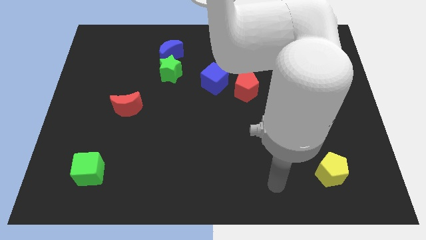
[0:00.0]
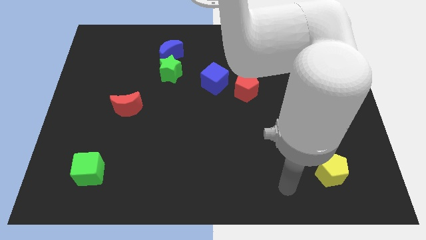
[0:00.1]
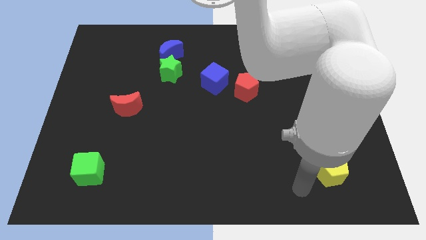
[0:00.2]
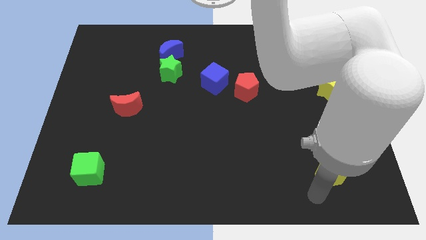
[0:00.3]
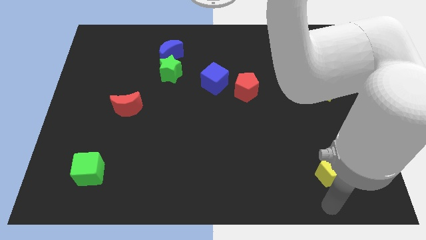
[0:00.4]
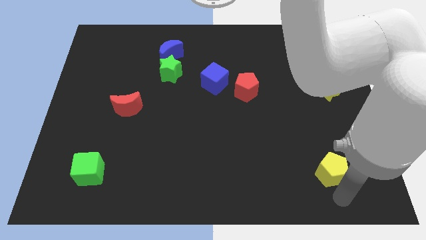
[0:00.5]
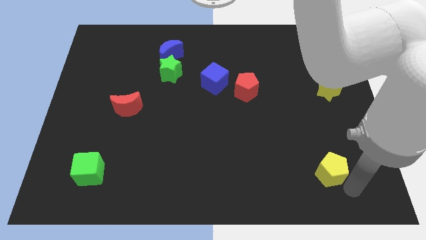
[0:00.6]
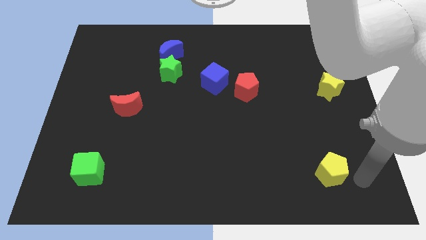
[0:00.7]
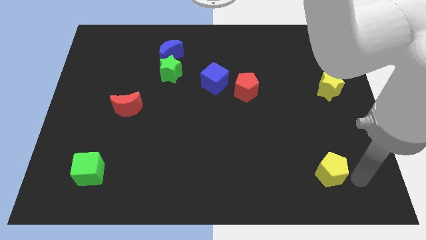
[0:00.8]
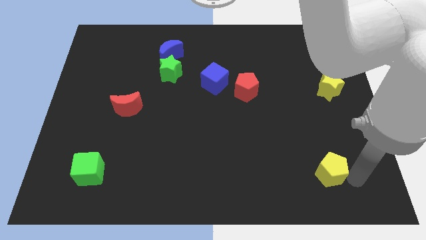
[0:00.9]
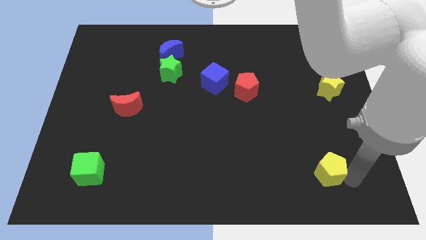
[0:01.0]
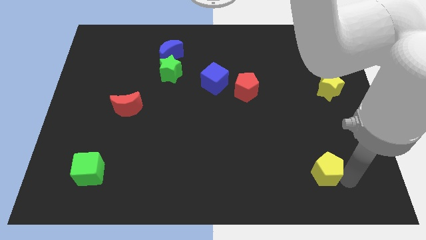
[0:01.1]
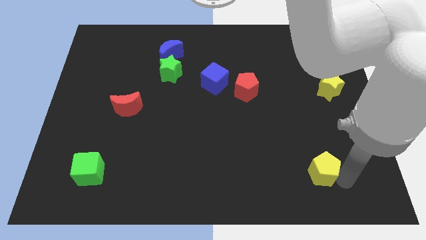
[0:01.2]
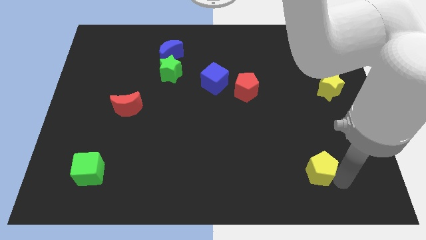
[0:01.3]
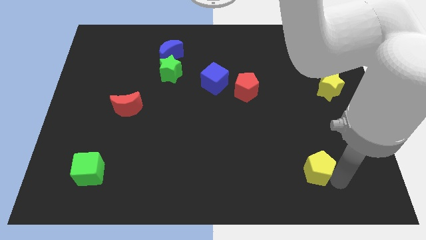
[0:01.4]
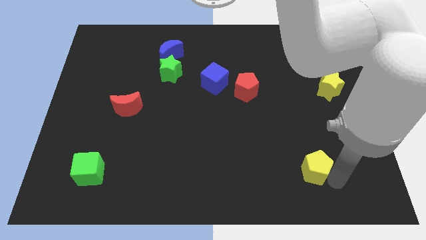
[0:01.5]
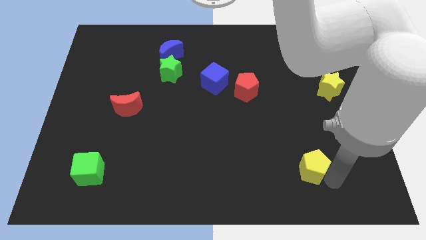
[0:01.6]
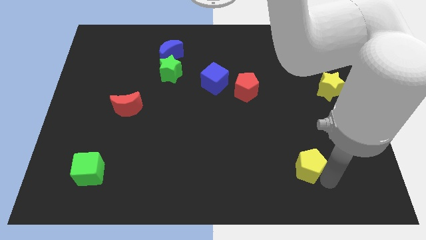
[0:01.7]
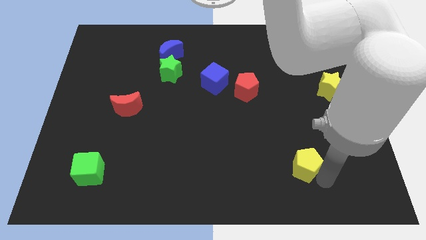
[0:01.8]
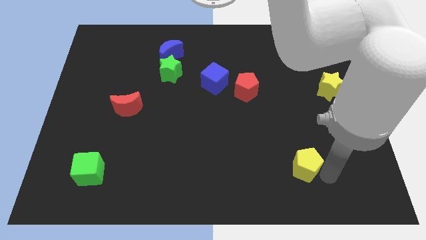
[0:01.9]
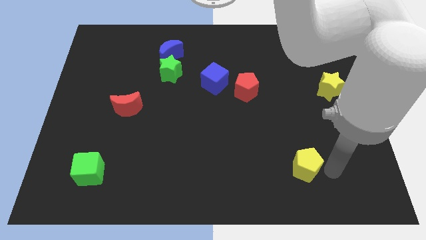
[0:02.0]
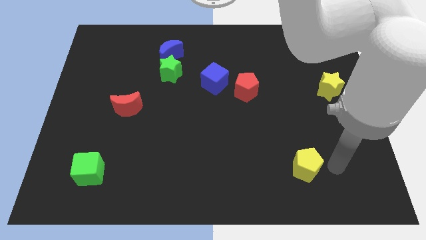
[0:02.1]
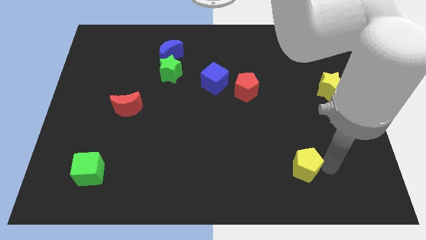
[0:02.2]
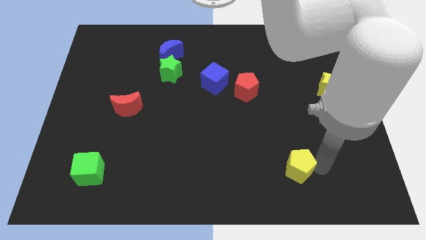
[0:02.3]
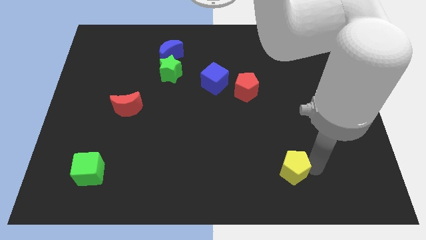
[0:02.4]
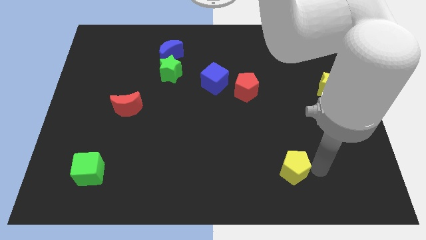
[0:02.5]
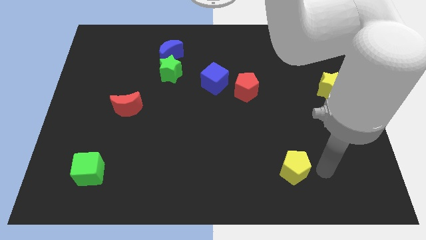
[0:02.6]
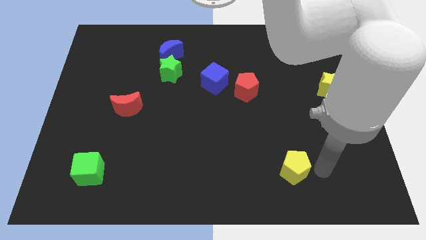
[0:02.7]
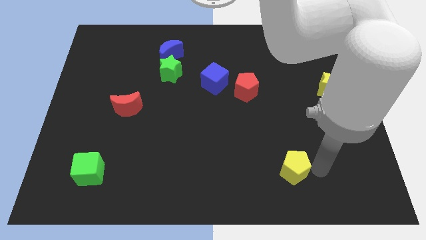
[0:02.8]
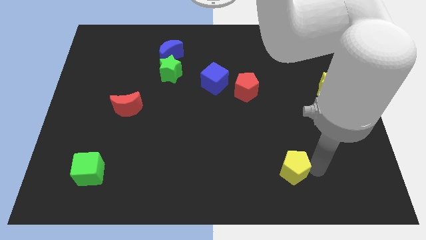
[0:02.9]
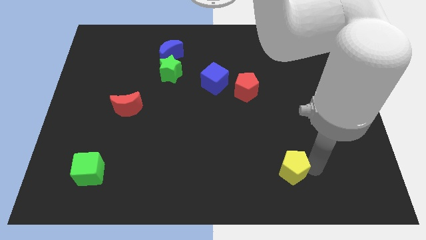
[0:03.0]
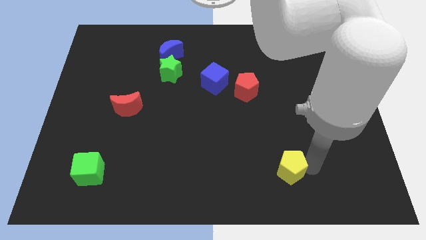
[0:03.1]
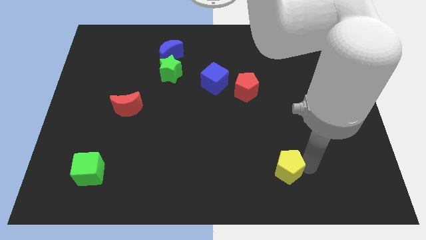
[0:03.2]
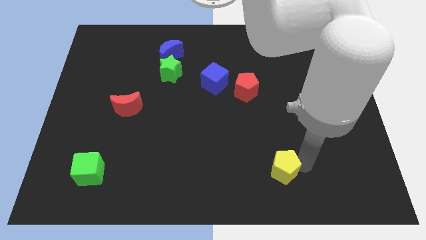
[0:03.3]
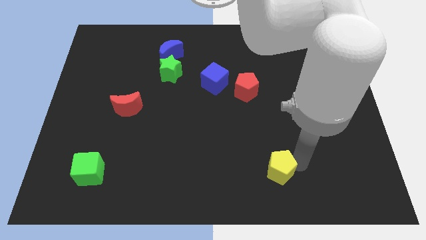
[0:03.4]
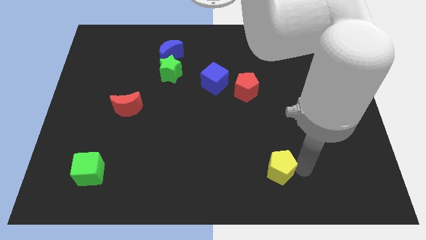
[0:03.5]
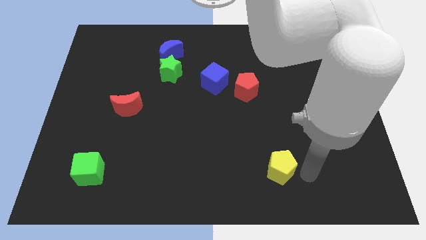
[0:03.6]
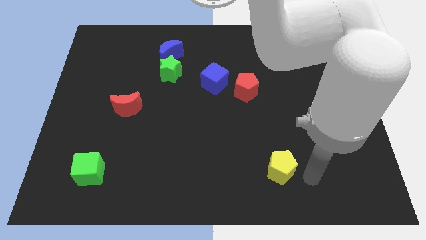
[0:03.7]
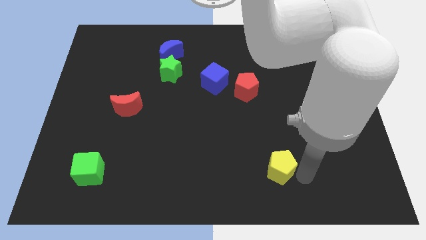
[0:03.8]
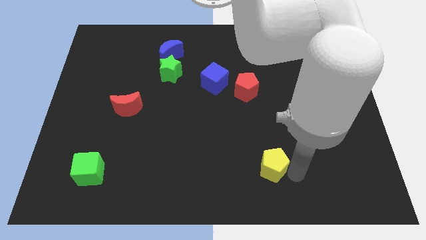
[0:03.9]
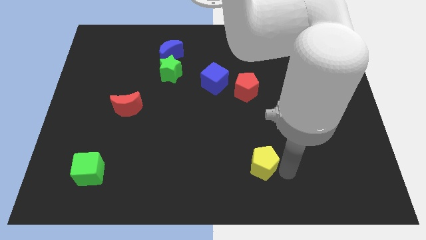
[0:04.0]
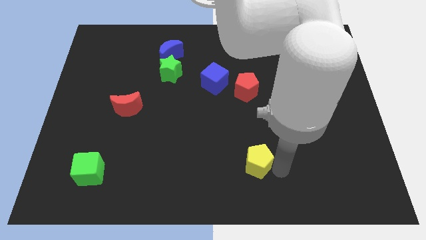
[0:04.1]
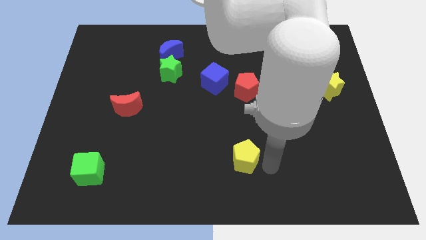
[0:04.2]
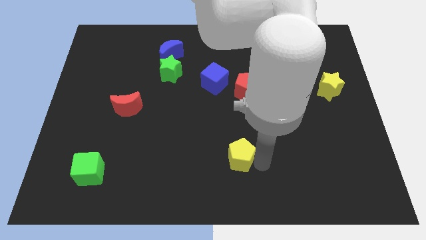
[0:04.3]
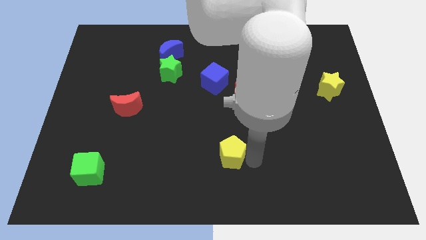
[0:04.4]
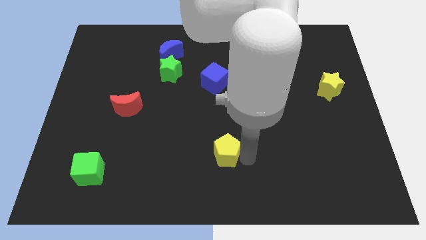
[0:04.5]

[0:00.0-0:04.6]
slide the yellow pentagon left

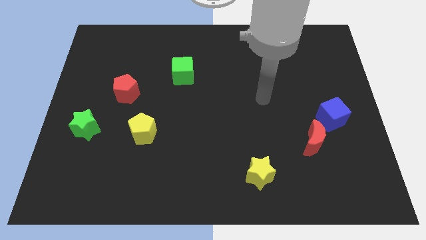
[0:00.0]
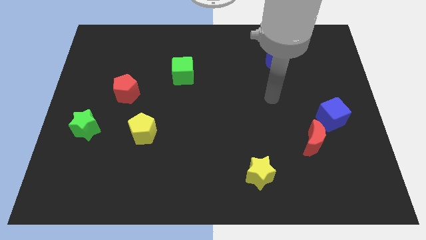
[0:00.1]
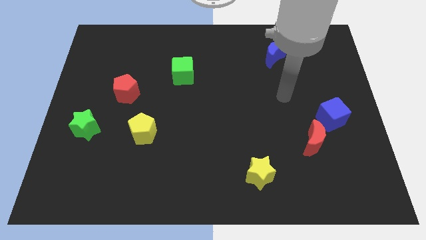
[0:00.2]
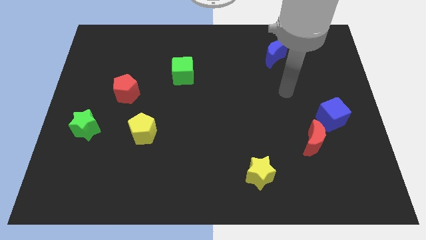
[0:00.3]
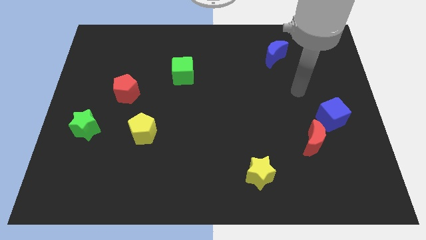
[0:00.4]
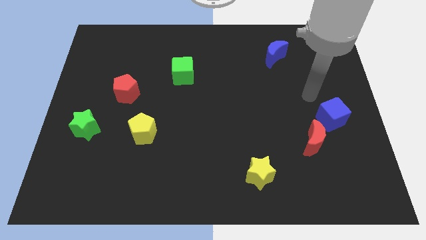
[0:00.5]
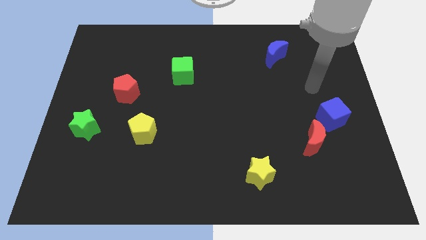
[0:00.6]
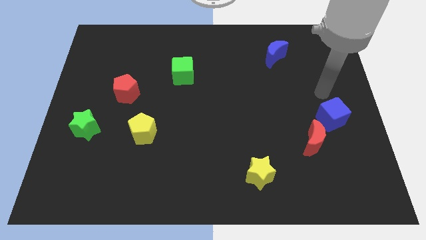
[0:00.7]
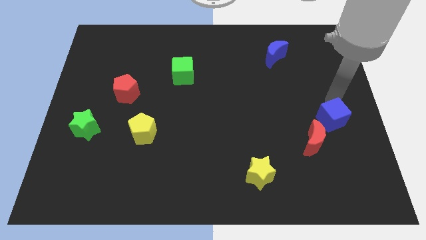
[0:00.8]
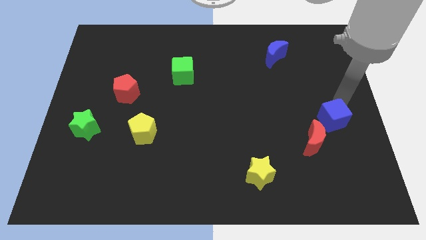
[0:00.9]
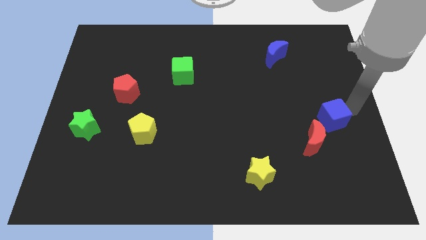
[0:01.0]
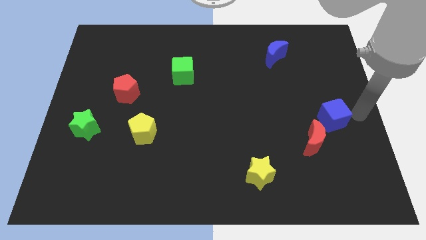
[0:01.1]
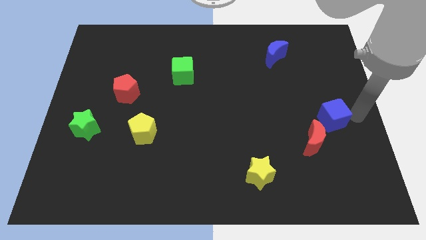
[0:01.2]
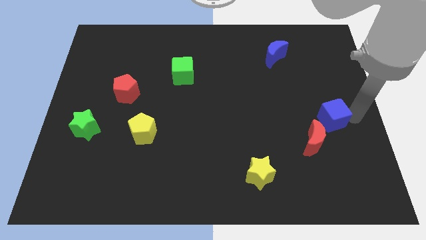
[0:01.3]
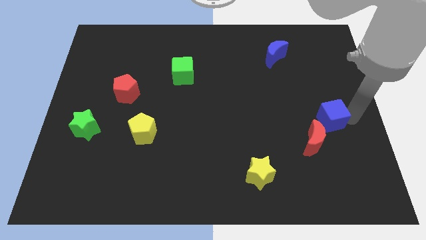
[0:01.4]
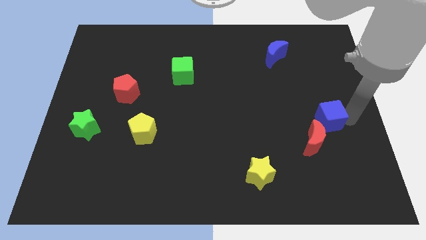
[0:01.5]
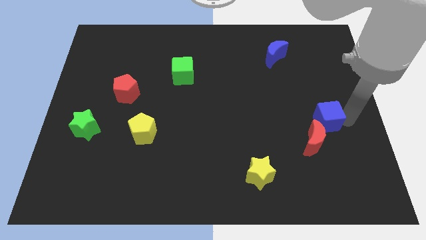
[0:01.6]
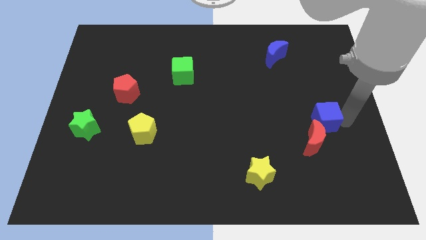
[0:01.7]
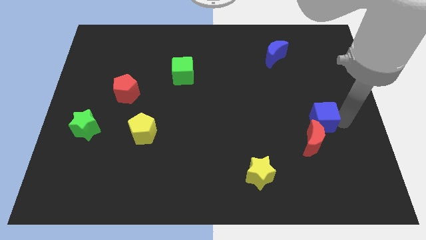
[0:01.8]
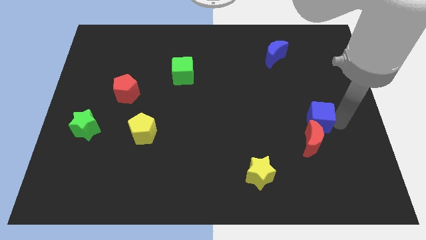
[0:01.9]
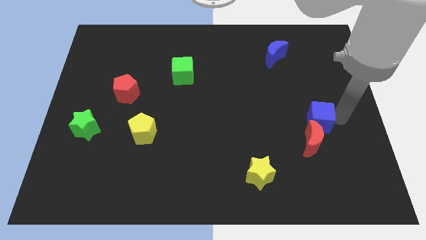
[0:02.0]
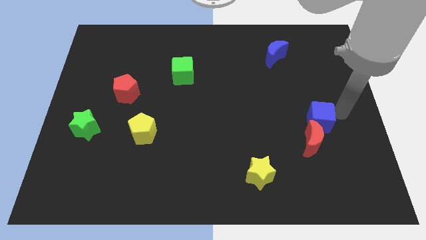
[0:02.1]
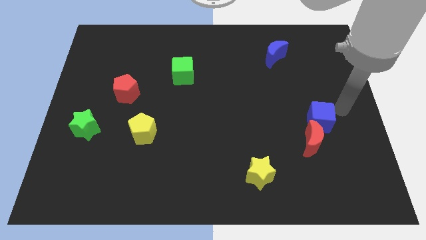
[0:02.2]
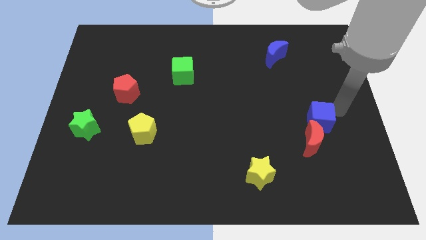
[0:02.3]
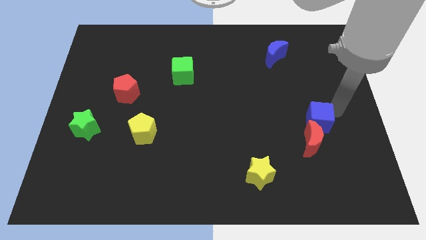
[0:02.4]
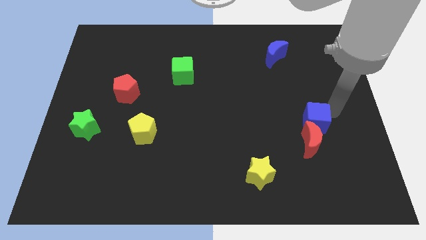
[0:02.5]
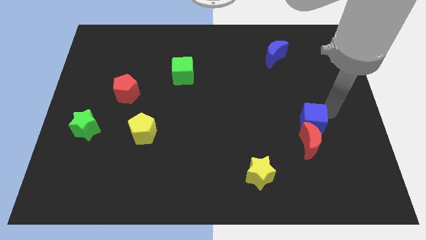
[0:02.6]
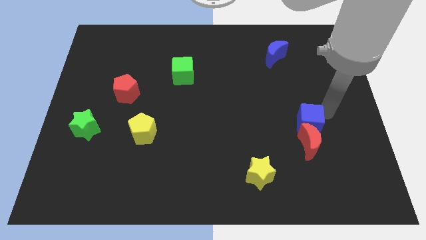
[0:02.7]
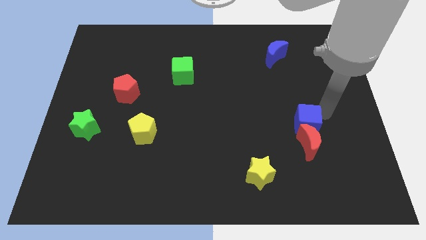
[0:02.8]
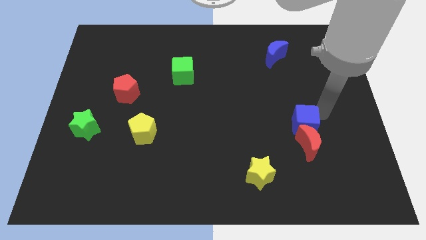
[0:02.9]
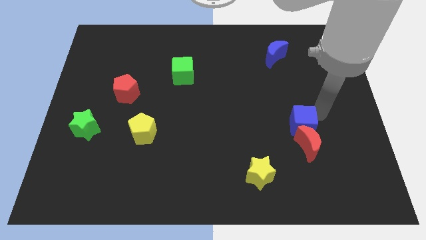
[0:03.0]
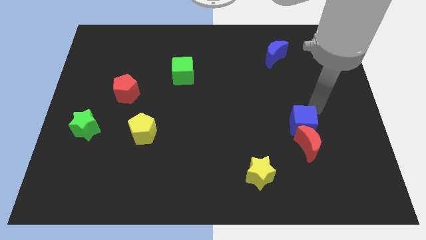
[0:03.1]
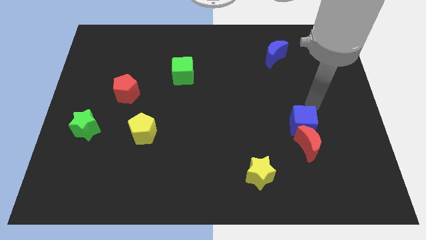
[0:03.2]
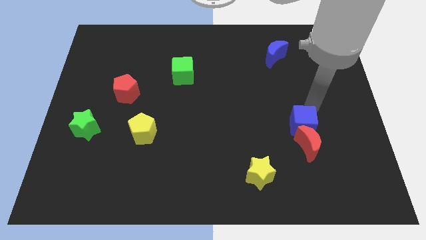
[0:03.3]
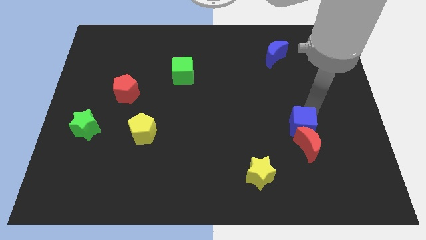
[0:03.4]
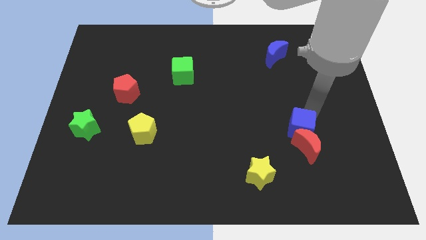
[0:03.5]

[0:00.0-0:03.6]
slightly slide the blue cube downwards and to the left diagonally
